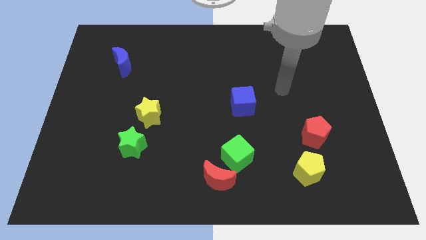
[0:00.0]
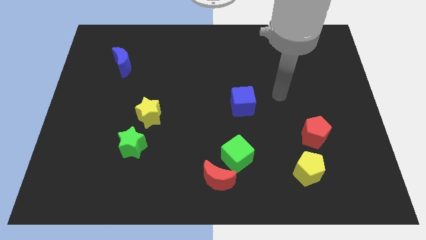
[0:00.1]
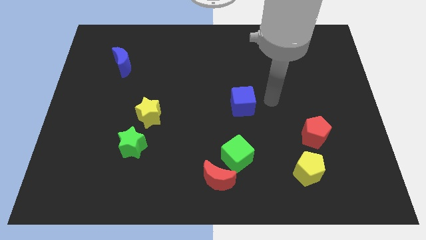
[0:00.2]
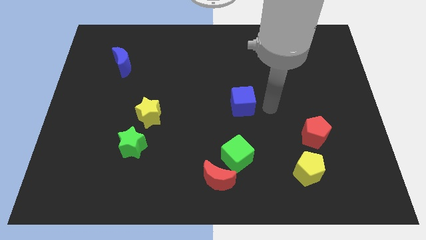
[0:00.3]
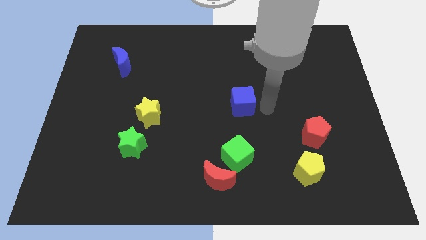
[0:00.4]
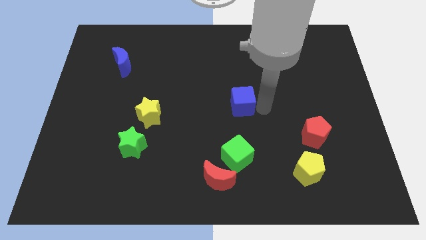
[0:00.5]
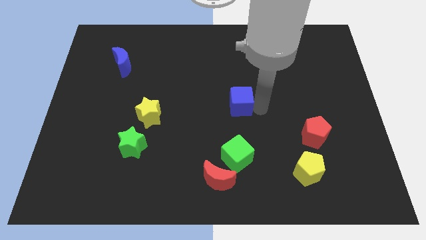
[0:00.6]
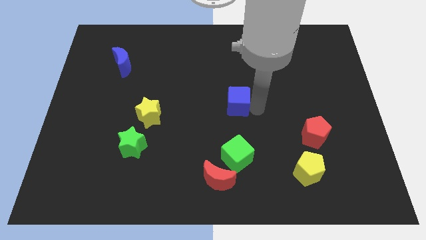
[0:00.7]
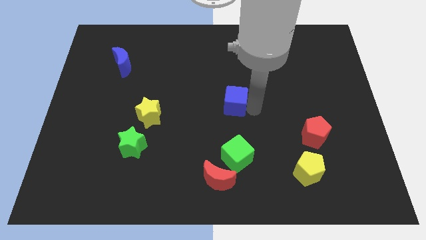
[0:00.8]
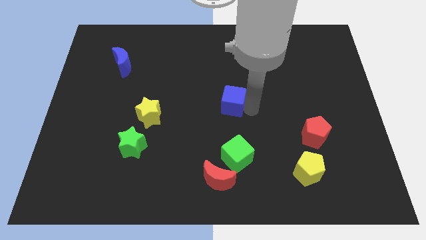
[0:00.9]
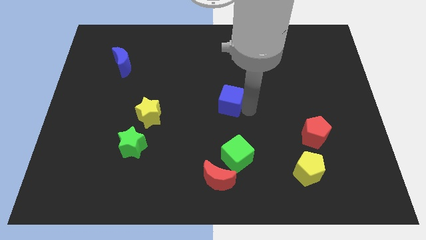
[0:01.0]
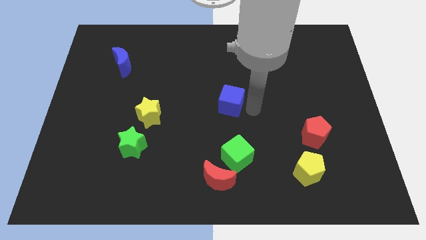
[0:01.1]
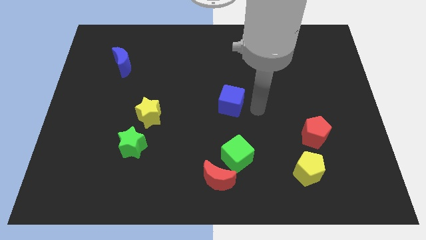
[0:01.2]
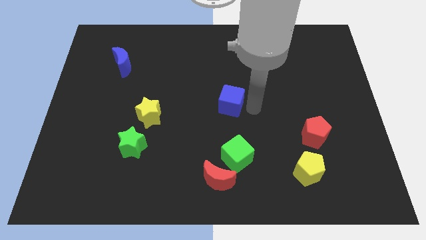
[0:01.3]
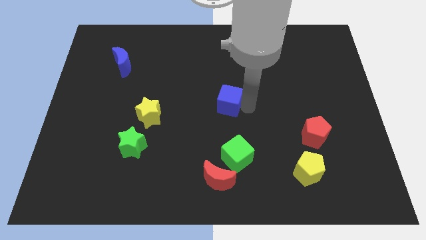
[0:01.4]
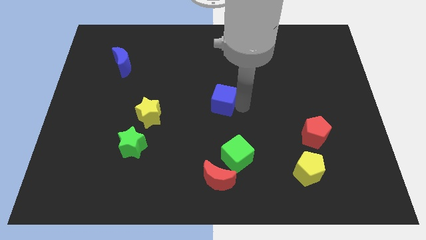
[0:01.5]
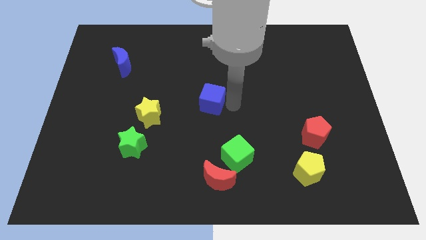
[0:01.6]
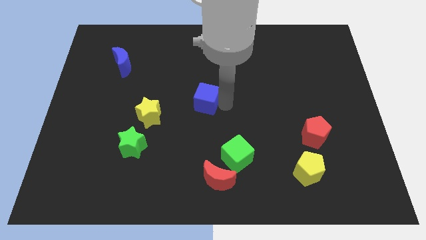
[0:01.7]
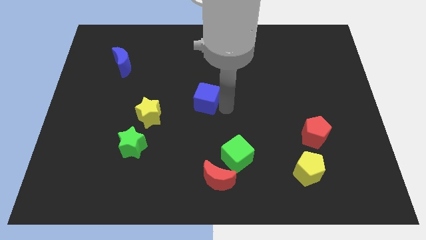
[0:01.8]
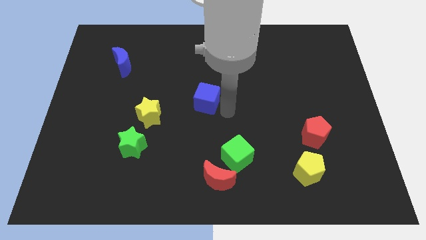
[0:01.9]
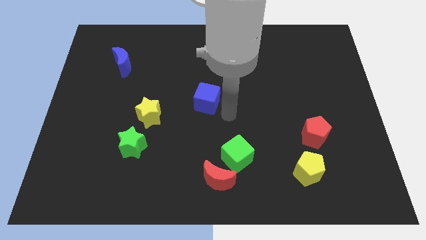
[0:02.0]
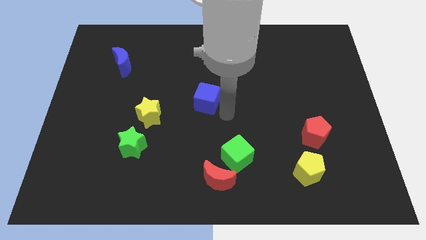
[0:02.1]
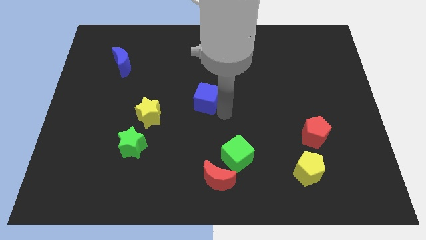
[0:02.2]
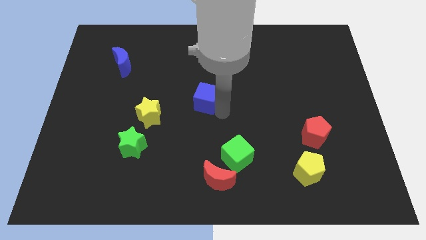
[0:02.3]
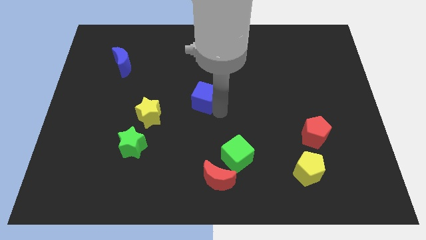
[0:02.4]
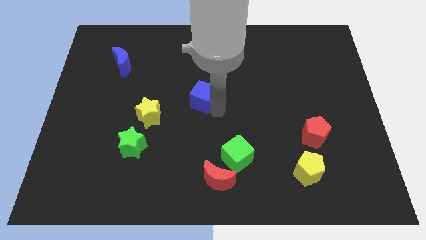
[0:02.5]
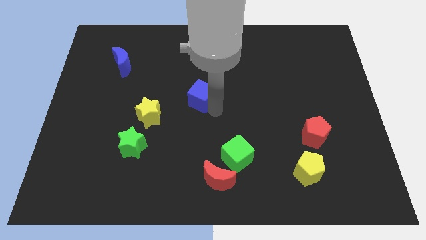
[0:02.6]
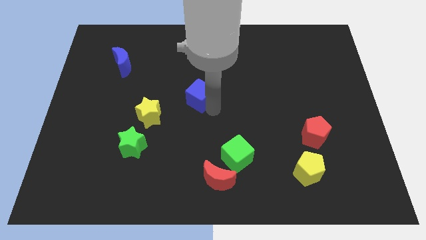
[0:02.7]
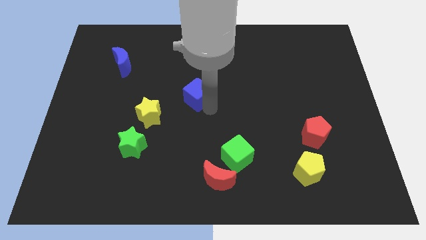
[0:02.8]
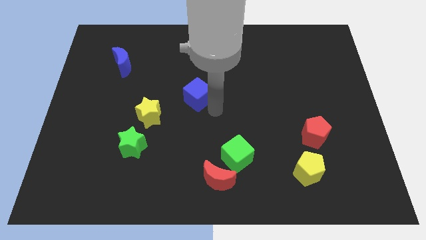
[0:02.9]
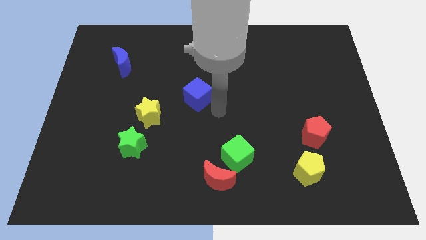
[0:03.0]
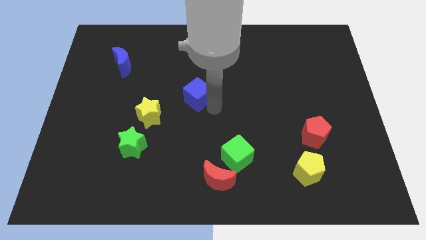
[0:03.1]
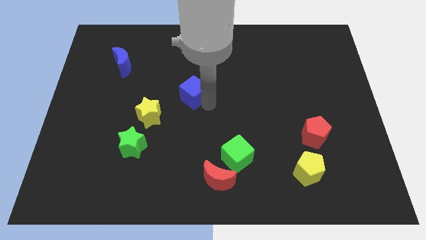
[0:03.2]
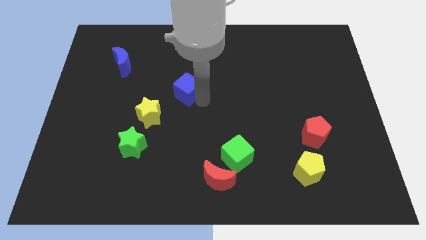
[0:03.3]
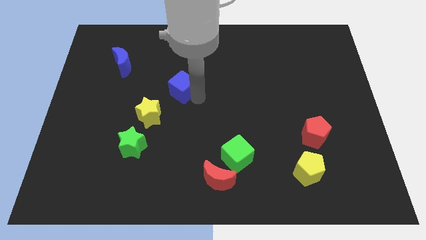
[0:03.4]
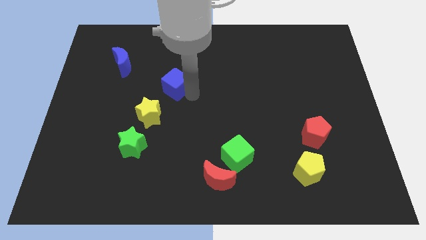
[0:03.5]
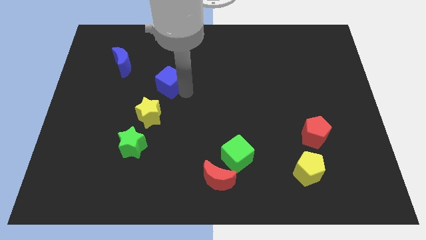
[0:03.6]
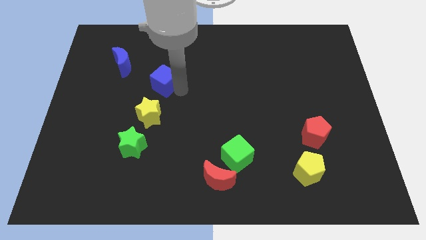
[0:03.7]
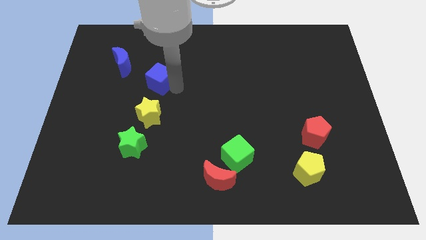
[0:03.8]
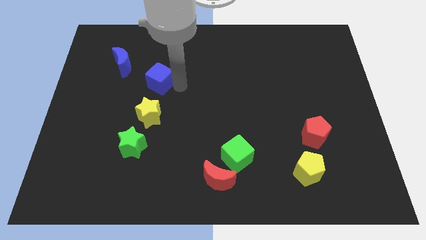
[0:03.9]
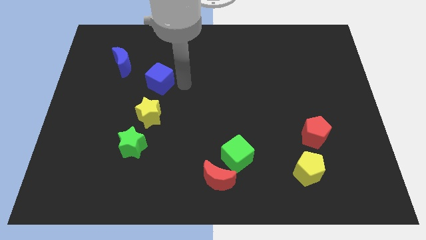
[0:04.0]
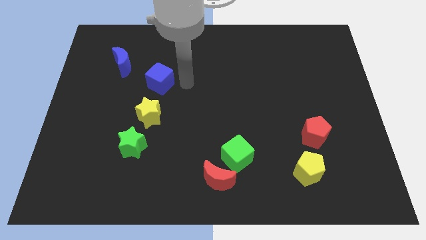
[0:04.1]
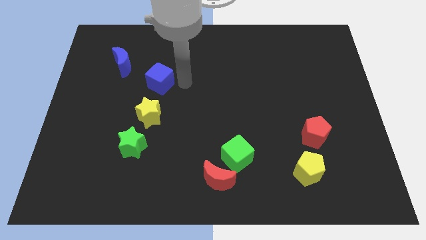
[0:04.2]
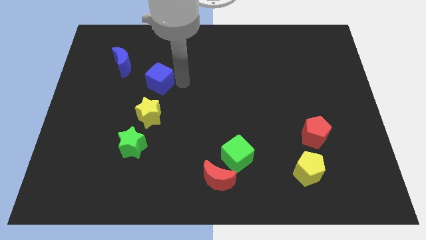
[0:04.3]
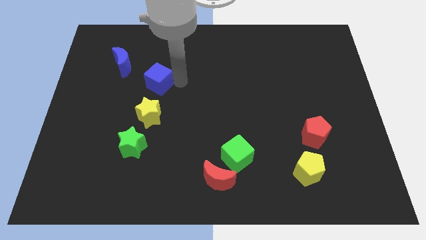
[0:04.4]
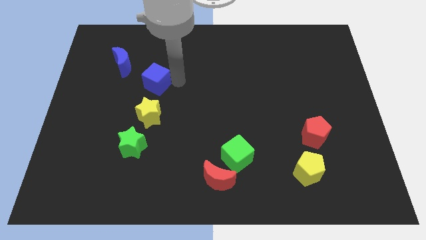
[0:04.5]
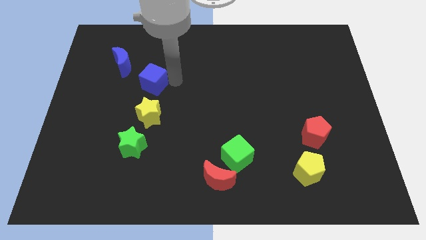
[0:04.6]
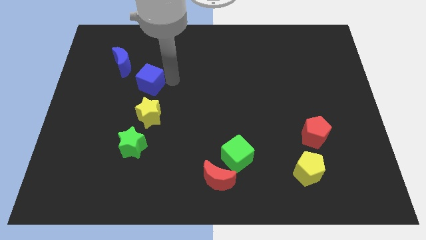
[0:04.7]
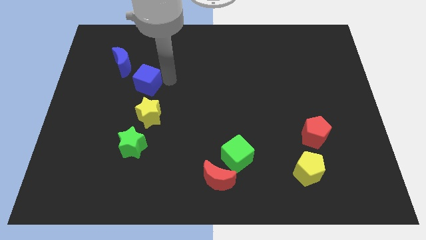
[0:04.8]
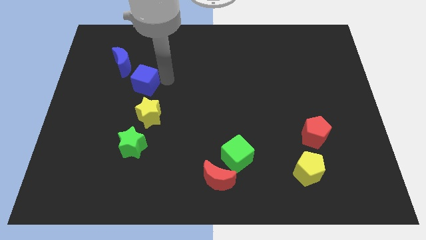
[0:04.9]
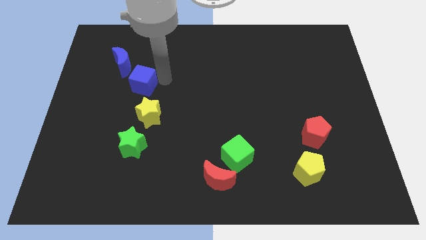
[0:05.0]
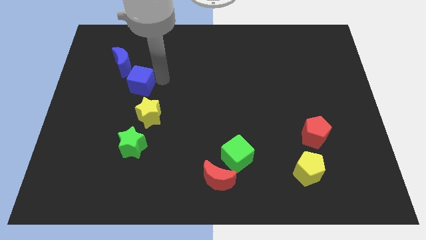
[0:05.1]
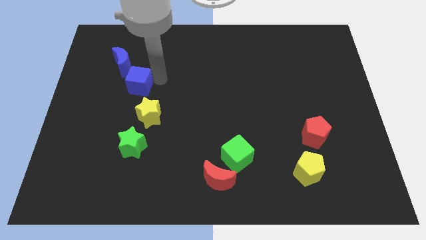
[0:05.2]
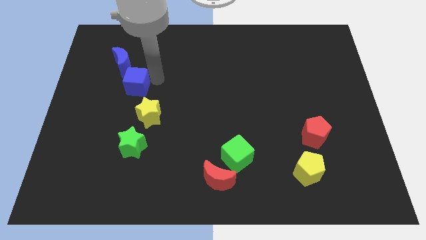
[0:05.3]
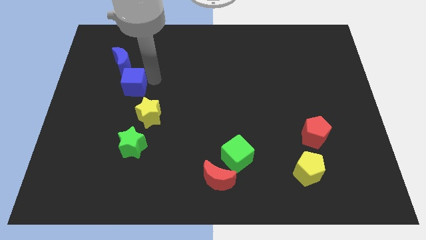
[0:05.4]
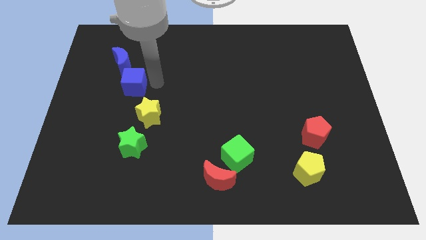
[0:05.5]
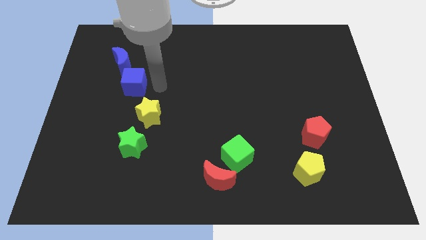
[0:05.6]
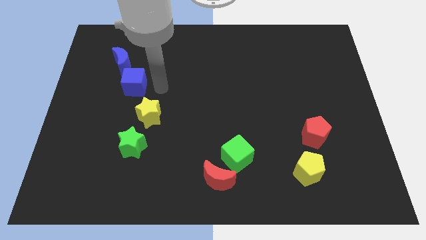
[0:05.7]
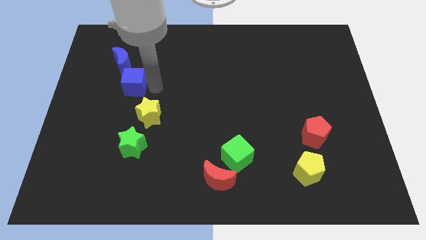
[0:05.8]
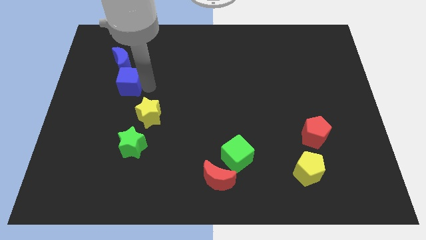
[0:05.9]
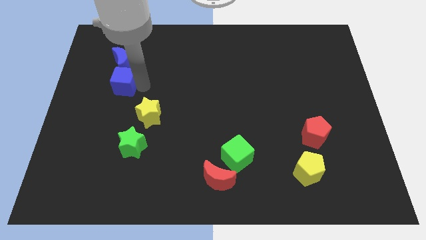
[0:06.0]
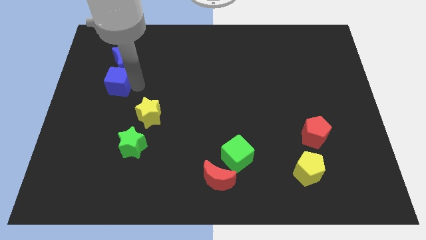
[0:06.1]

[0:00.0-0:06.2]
push the blue cube diagonally down and to the left of the blue moon

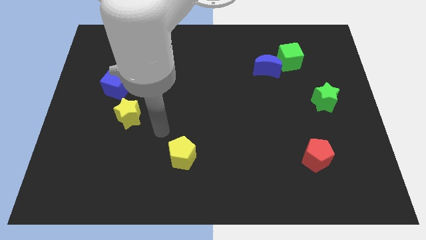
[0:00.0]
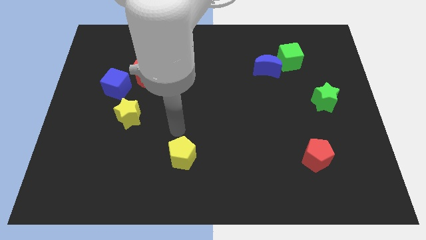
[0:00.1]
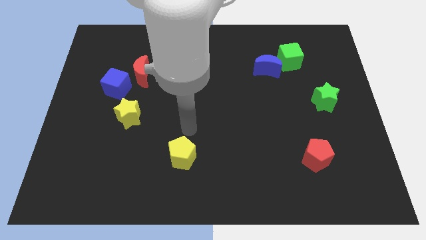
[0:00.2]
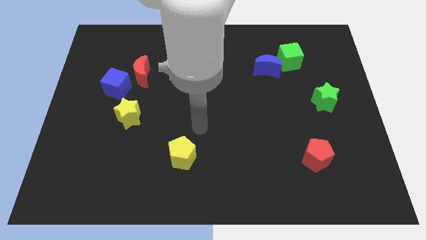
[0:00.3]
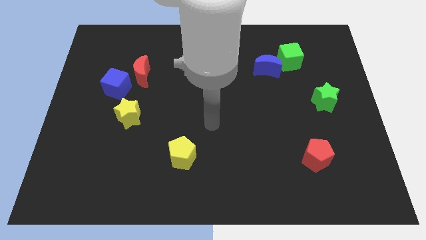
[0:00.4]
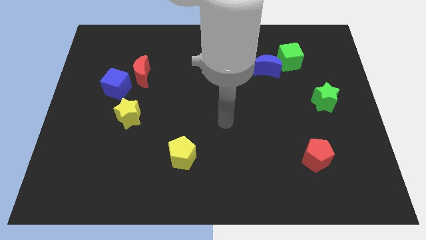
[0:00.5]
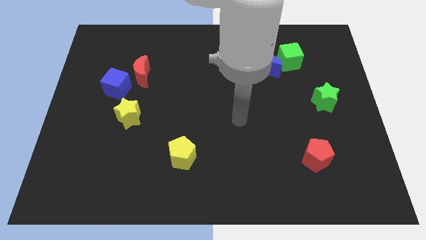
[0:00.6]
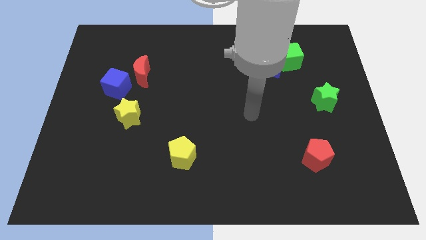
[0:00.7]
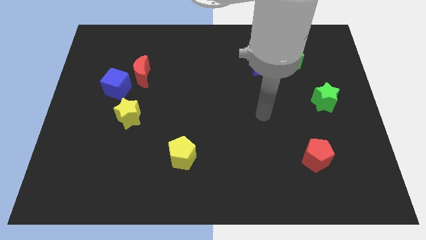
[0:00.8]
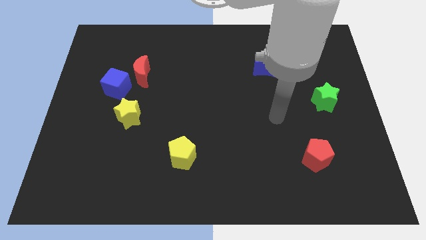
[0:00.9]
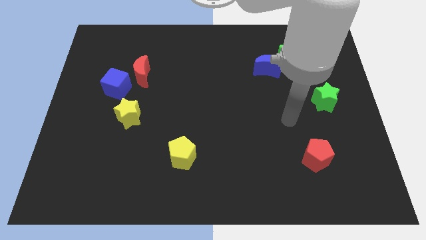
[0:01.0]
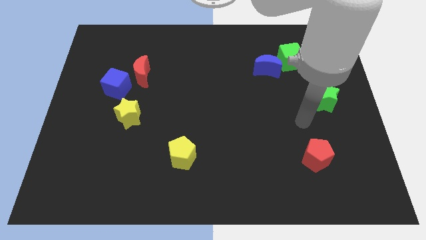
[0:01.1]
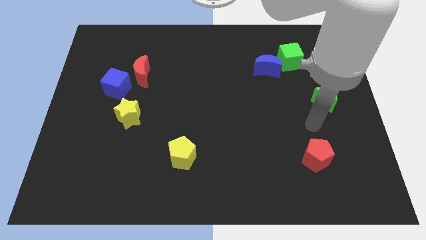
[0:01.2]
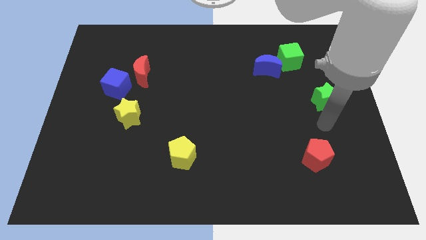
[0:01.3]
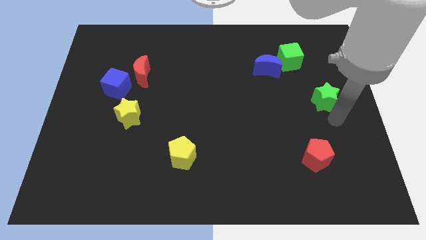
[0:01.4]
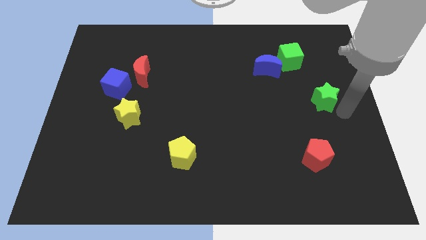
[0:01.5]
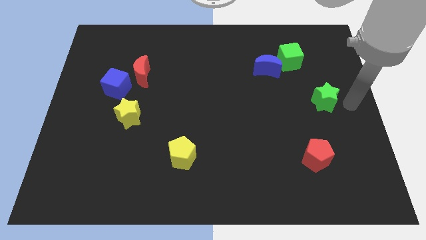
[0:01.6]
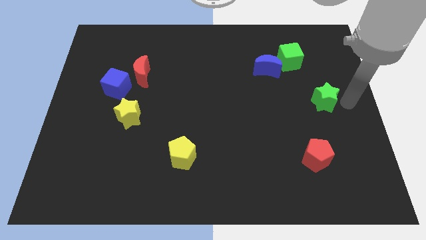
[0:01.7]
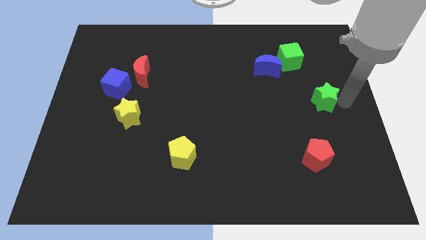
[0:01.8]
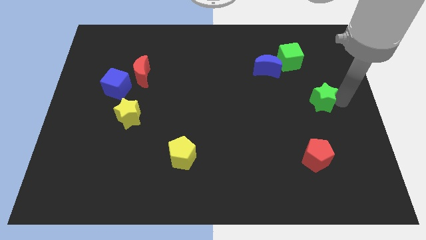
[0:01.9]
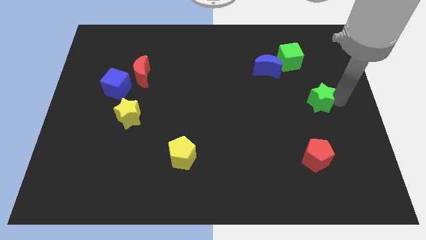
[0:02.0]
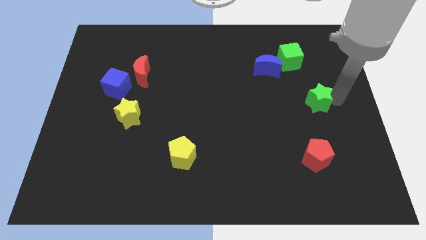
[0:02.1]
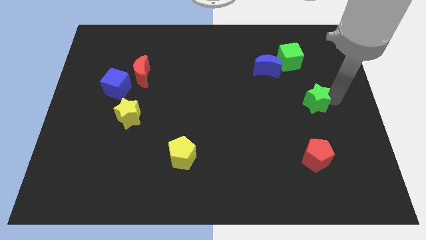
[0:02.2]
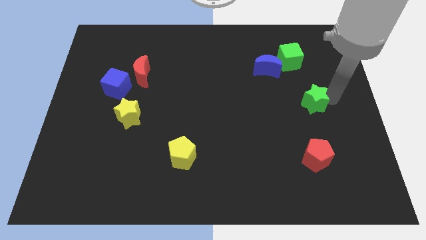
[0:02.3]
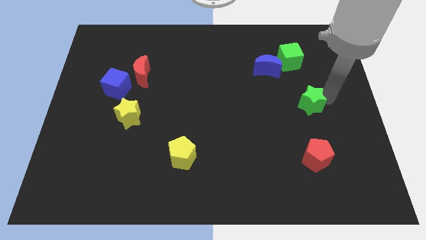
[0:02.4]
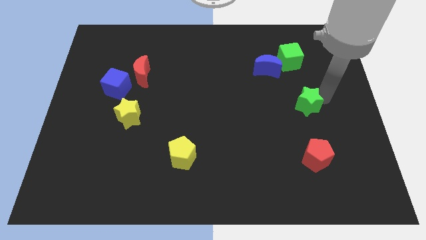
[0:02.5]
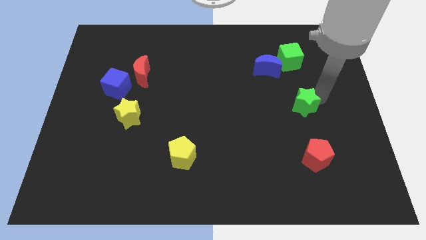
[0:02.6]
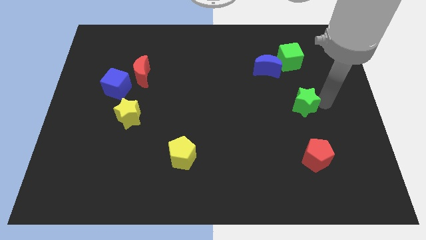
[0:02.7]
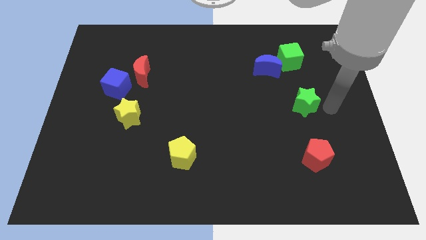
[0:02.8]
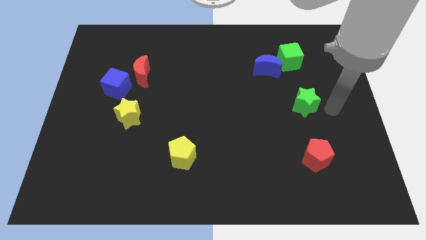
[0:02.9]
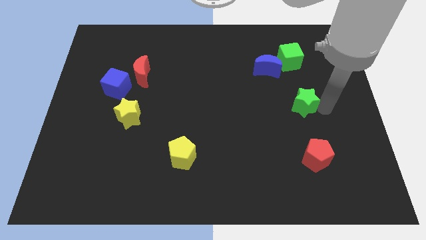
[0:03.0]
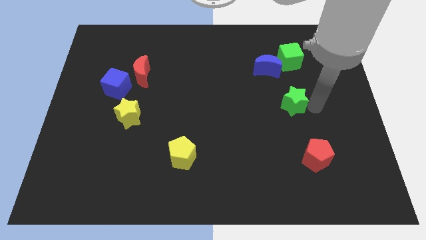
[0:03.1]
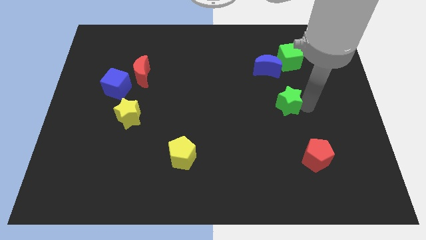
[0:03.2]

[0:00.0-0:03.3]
slide the green star to the bottom of the blue moon
